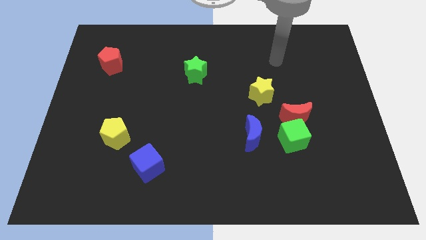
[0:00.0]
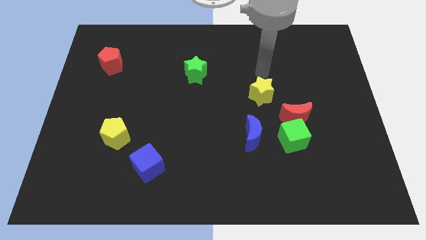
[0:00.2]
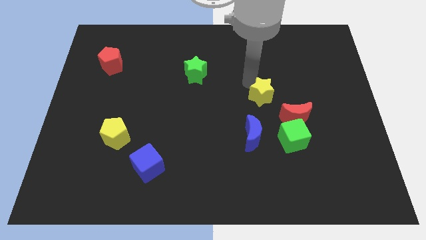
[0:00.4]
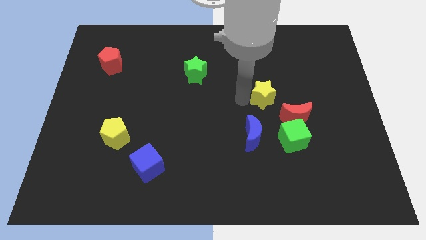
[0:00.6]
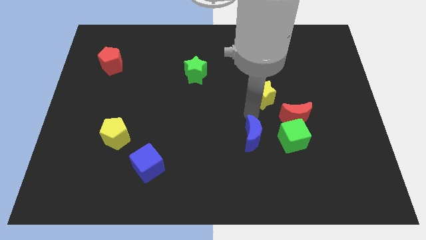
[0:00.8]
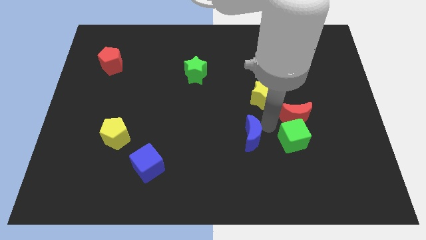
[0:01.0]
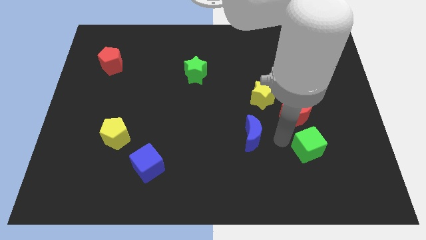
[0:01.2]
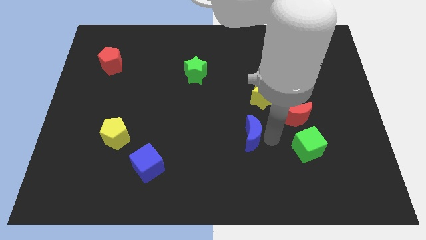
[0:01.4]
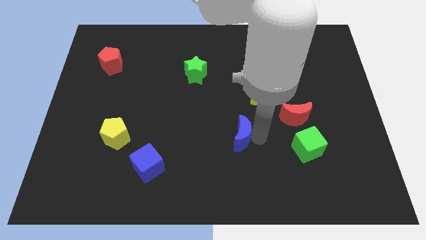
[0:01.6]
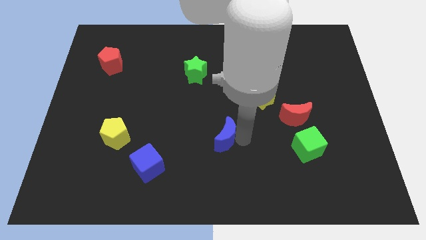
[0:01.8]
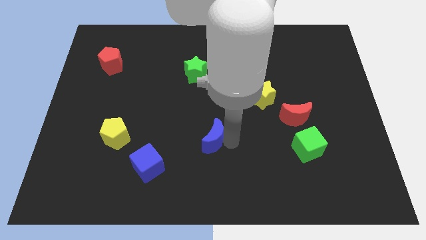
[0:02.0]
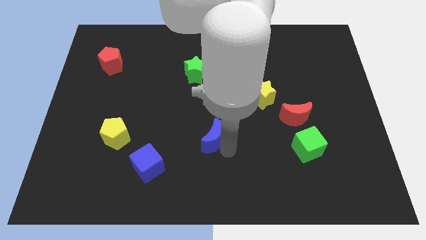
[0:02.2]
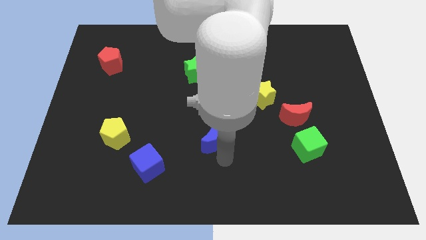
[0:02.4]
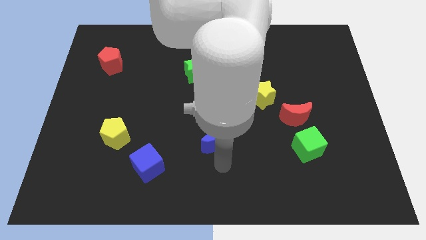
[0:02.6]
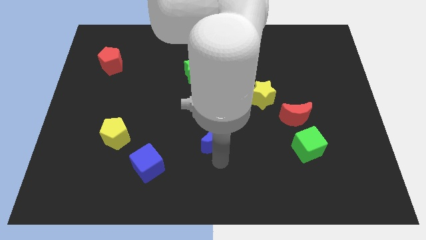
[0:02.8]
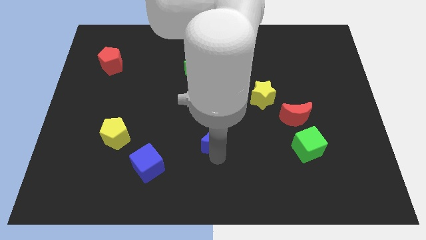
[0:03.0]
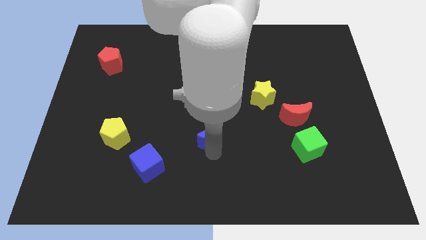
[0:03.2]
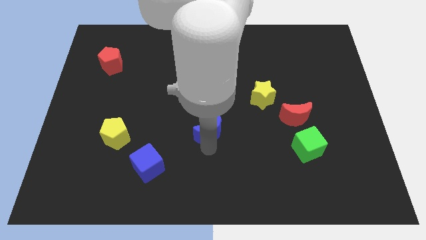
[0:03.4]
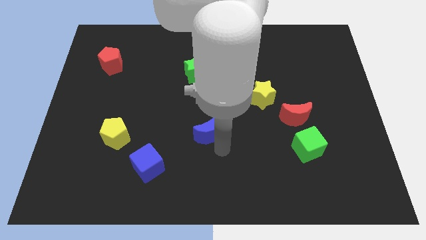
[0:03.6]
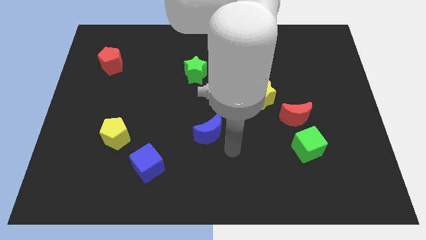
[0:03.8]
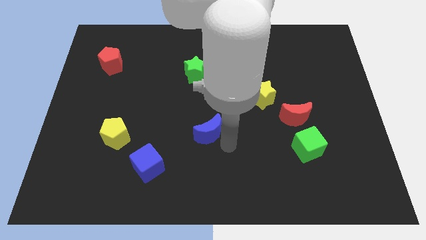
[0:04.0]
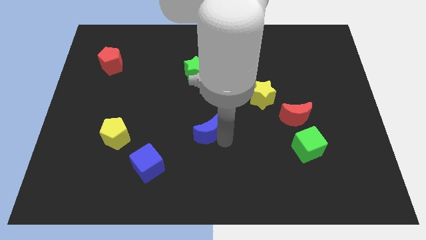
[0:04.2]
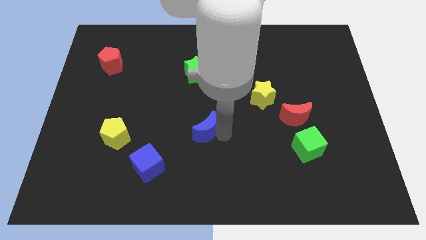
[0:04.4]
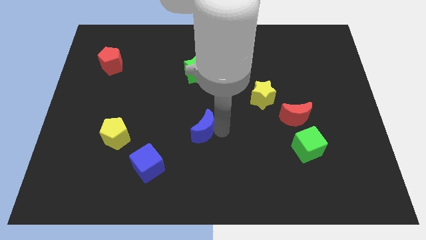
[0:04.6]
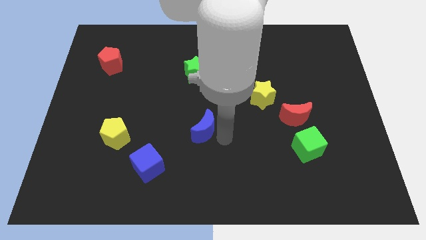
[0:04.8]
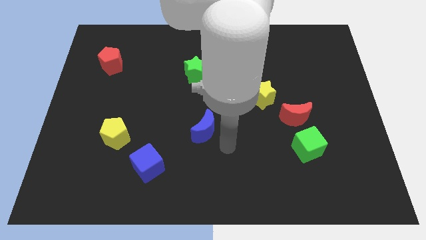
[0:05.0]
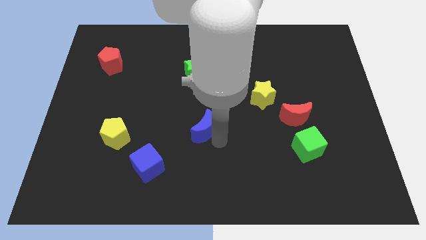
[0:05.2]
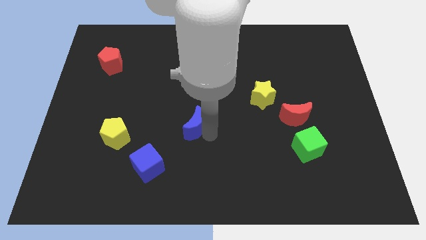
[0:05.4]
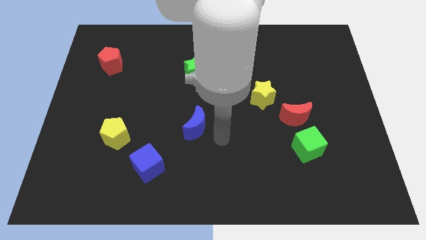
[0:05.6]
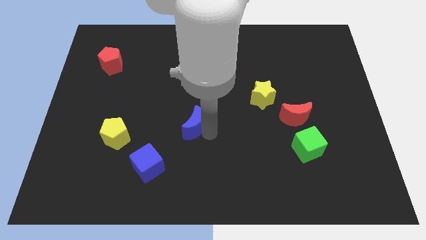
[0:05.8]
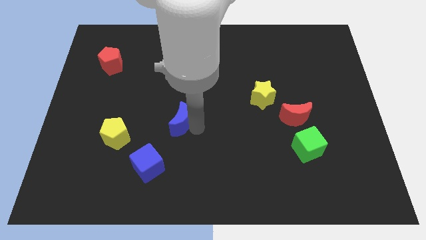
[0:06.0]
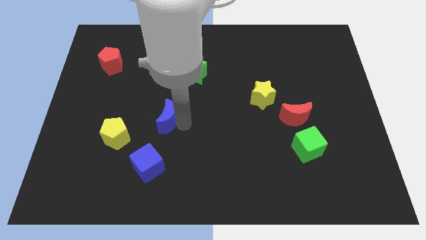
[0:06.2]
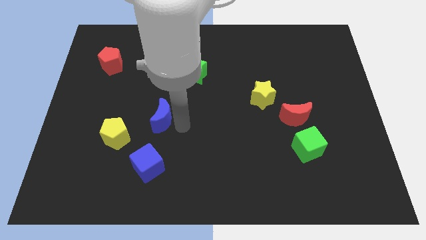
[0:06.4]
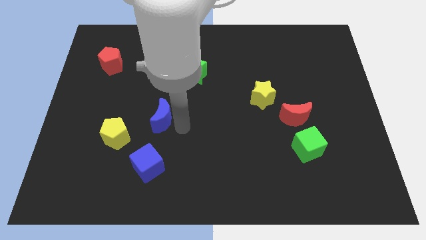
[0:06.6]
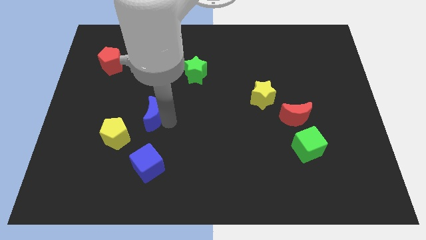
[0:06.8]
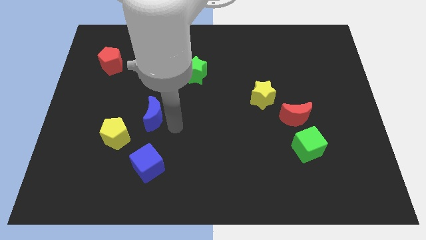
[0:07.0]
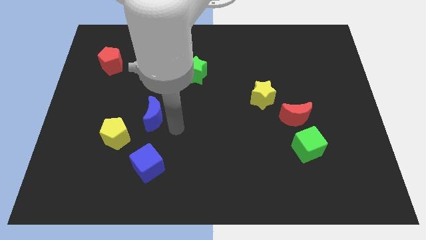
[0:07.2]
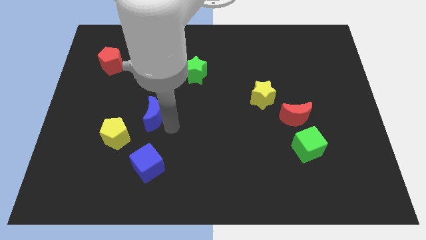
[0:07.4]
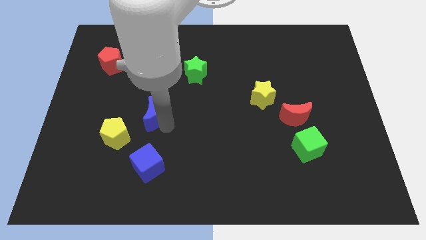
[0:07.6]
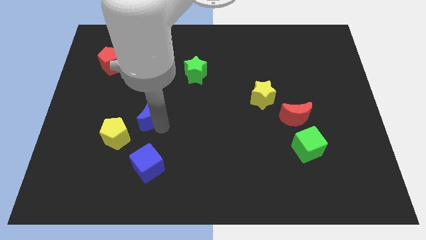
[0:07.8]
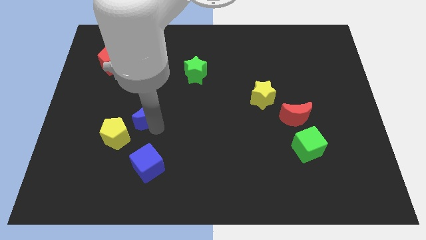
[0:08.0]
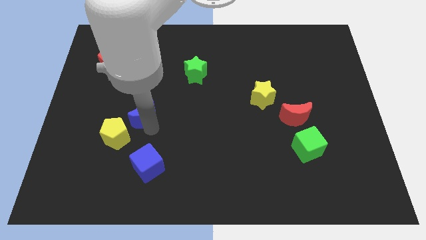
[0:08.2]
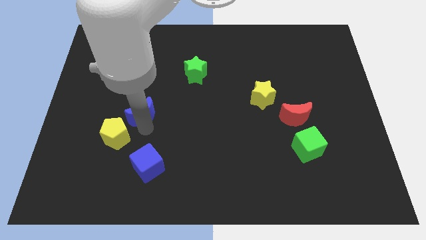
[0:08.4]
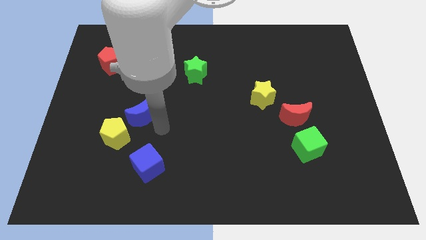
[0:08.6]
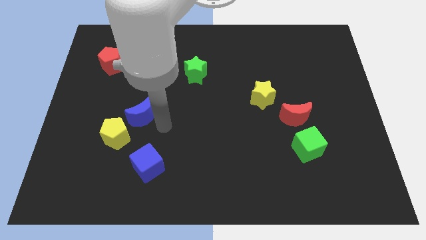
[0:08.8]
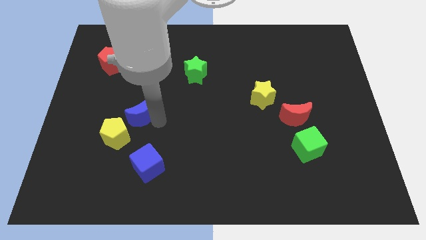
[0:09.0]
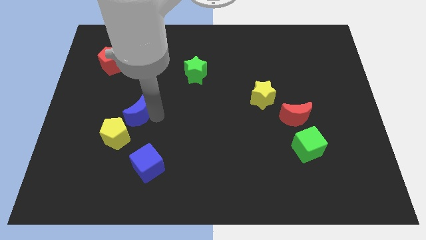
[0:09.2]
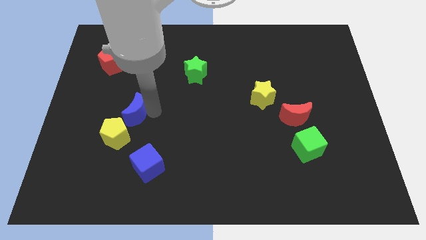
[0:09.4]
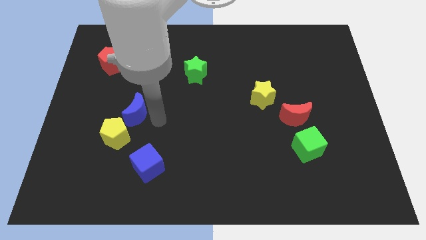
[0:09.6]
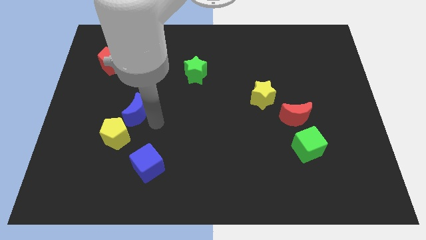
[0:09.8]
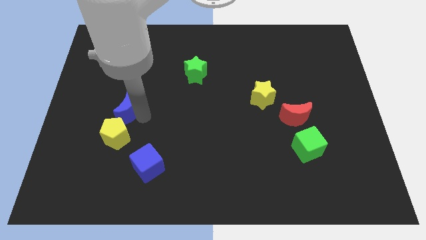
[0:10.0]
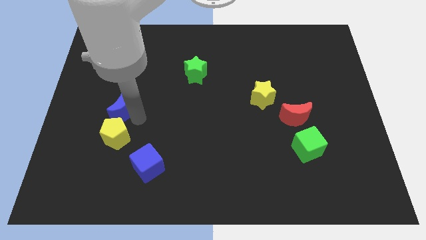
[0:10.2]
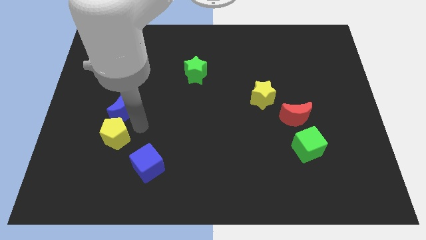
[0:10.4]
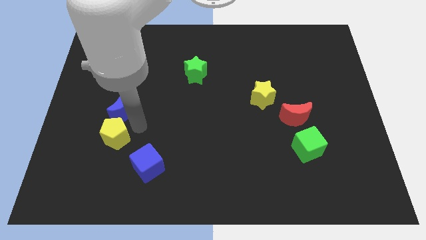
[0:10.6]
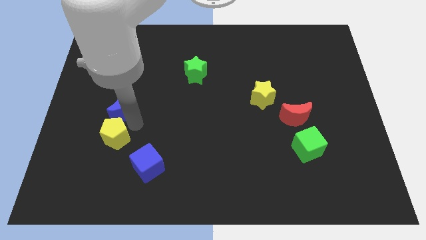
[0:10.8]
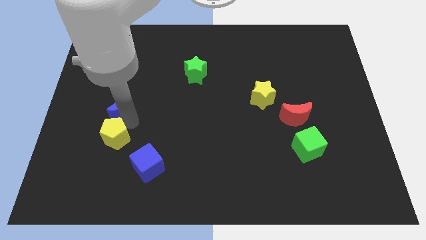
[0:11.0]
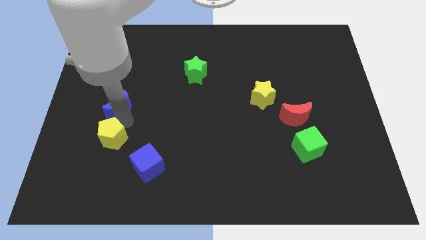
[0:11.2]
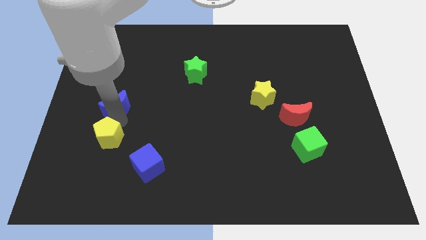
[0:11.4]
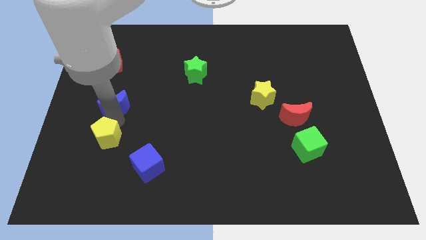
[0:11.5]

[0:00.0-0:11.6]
put the blue moon below the red pentagon

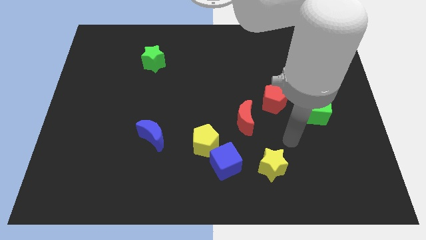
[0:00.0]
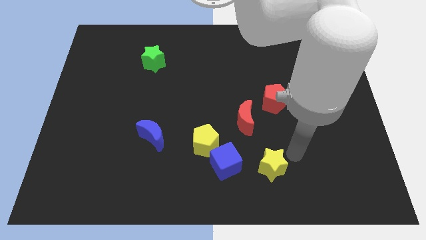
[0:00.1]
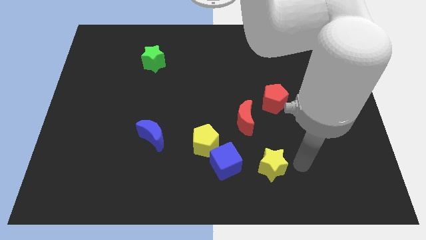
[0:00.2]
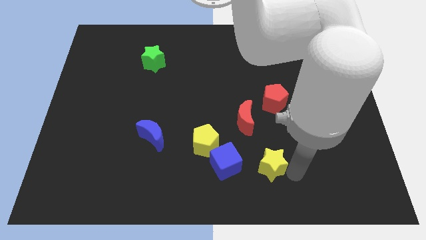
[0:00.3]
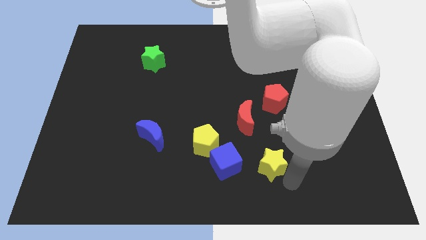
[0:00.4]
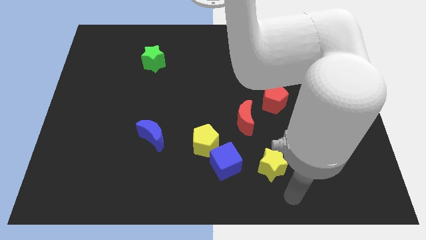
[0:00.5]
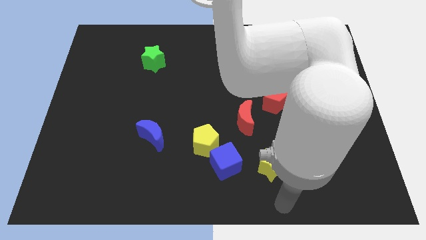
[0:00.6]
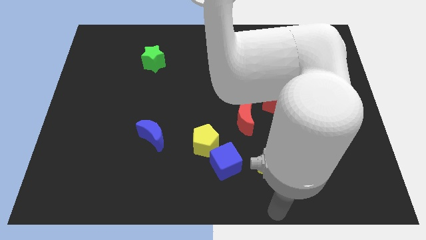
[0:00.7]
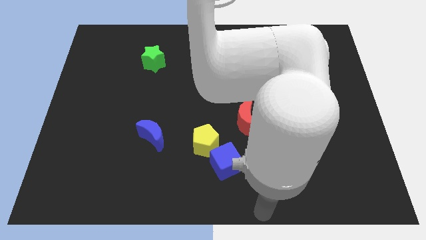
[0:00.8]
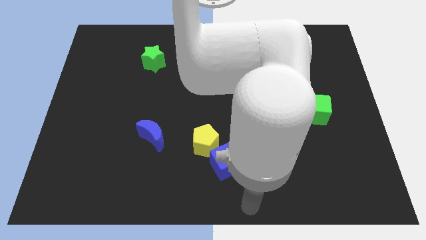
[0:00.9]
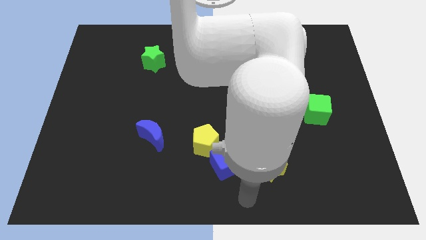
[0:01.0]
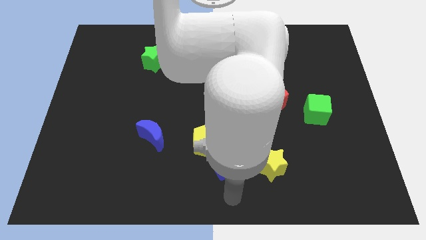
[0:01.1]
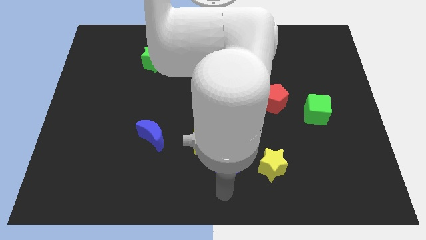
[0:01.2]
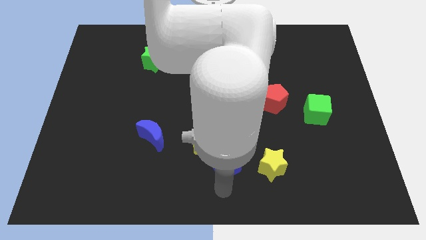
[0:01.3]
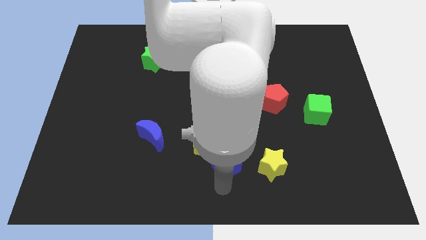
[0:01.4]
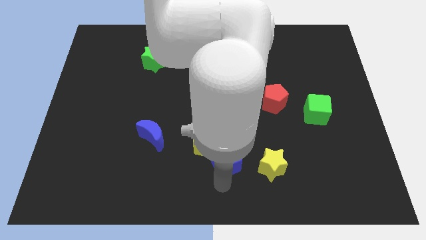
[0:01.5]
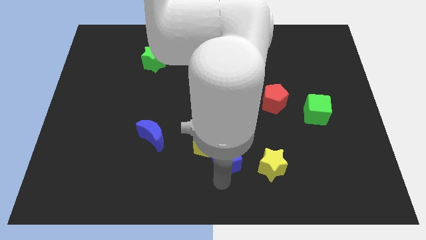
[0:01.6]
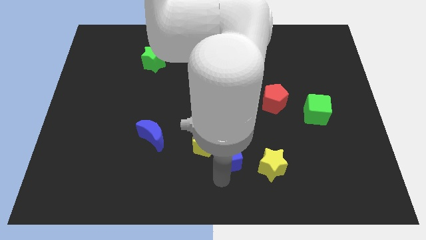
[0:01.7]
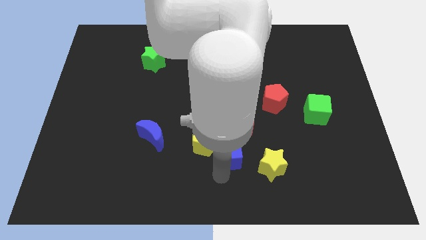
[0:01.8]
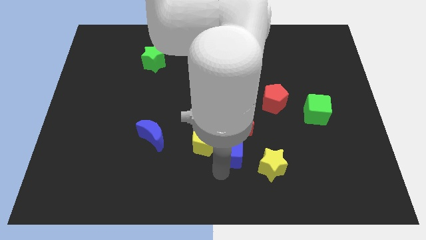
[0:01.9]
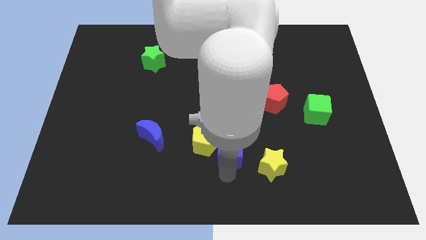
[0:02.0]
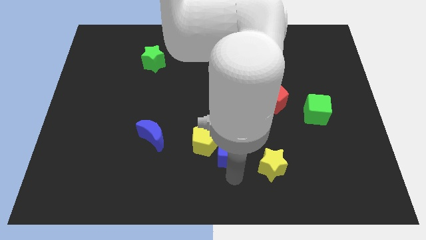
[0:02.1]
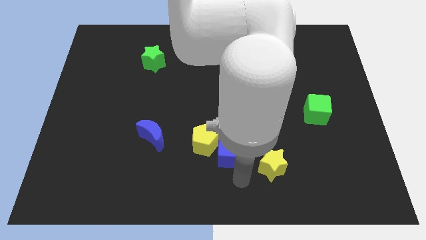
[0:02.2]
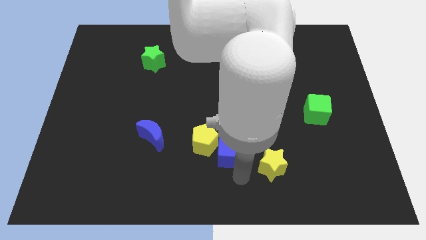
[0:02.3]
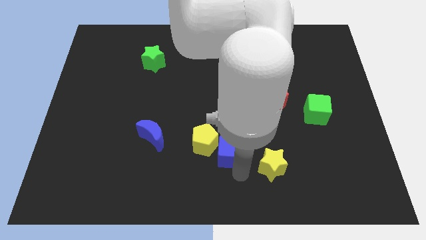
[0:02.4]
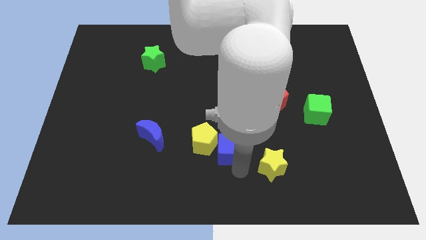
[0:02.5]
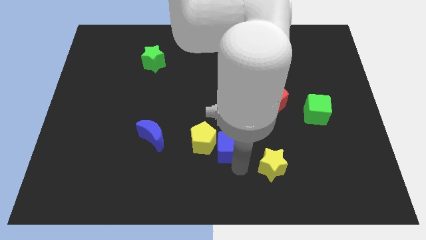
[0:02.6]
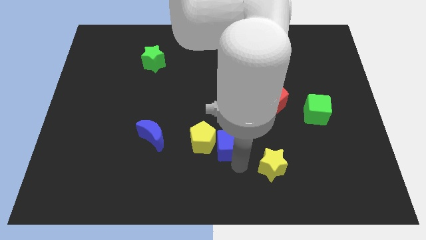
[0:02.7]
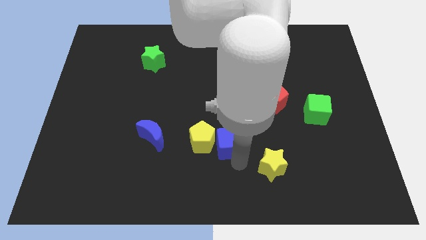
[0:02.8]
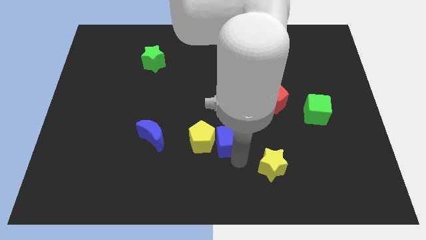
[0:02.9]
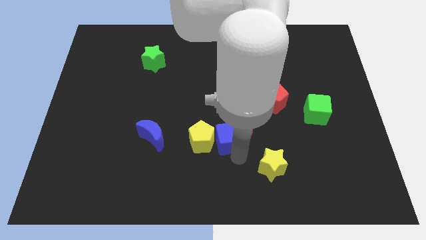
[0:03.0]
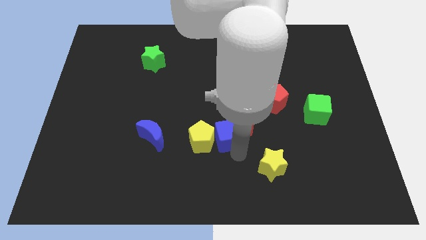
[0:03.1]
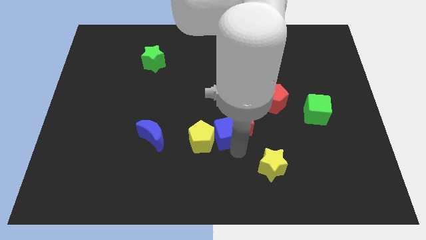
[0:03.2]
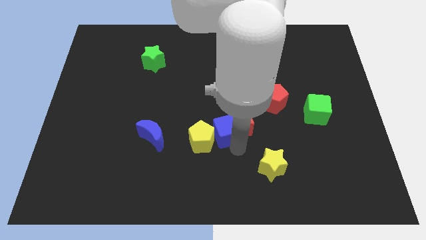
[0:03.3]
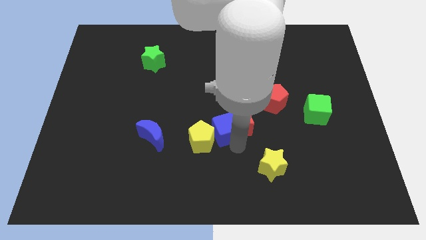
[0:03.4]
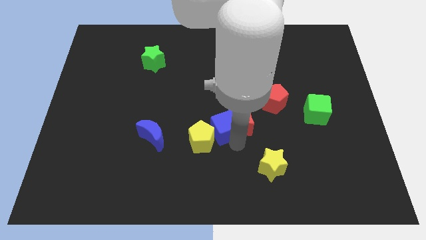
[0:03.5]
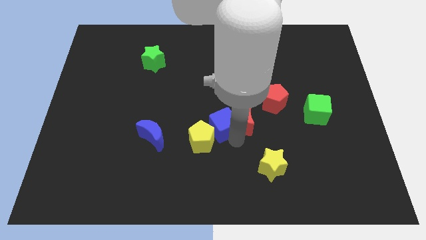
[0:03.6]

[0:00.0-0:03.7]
move the blue cube to the top left side of the red moon
